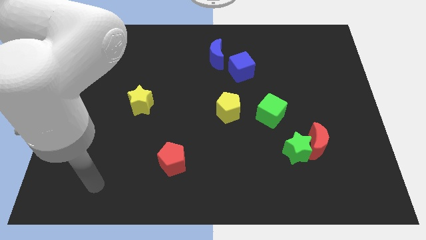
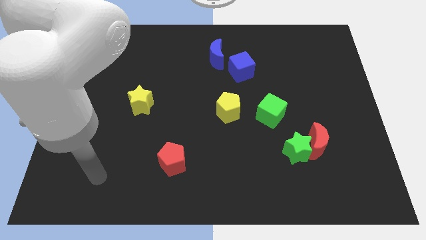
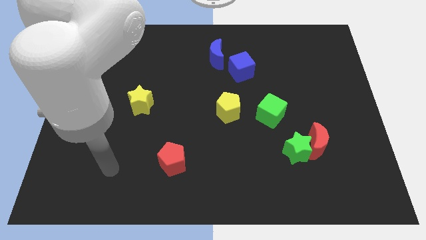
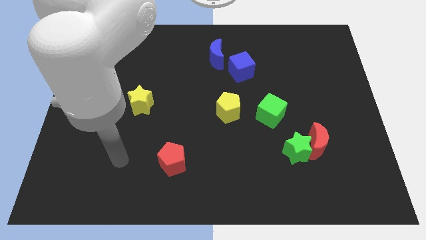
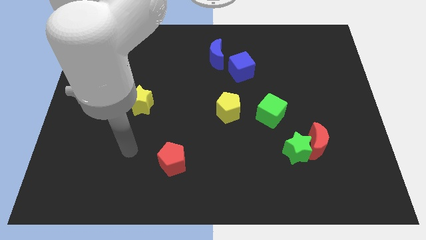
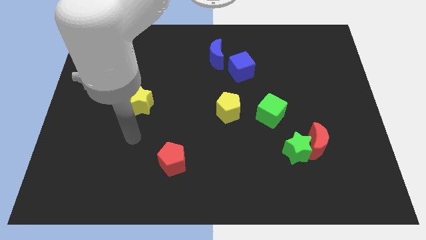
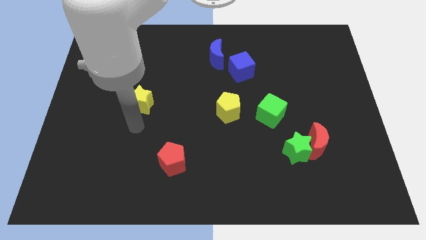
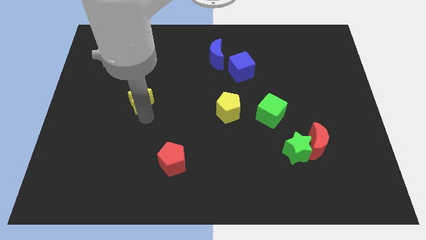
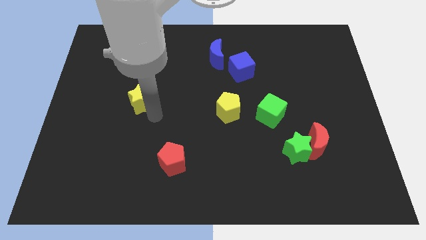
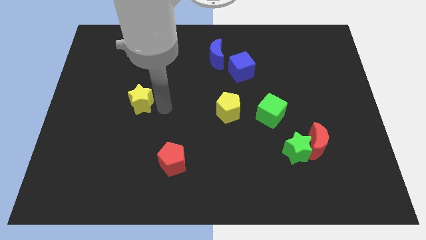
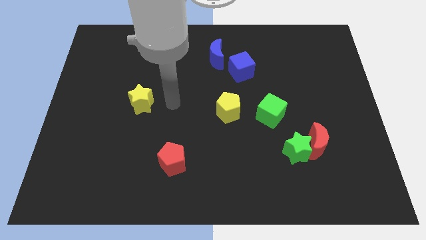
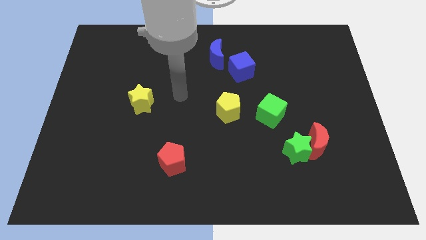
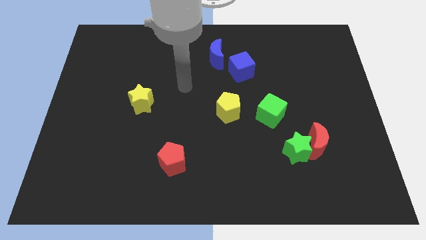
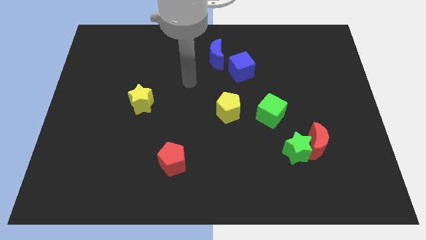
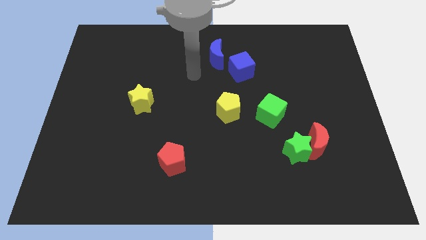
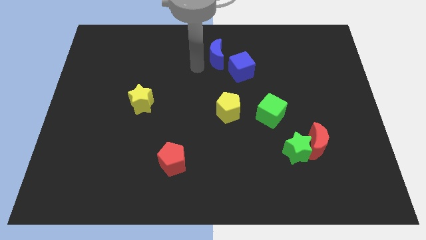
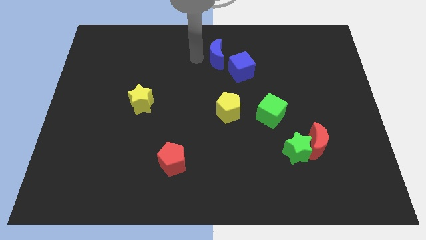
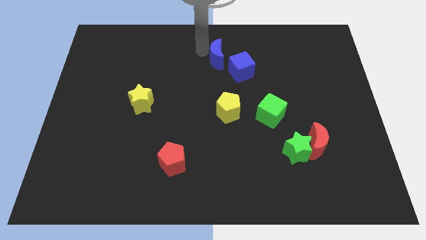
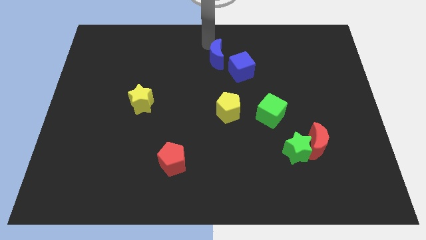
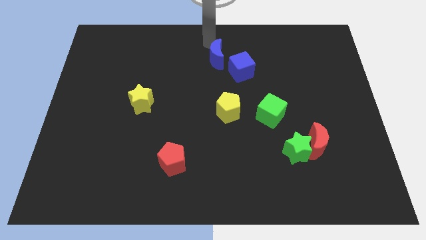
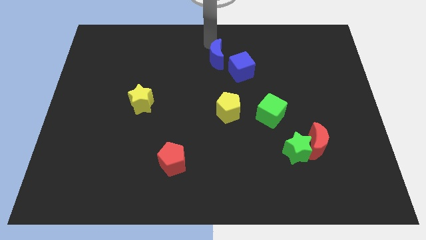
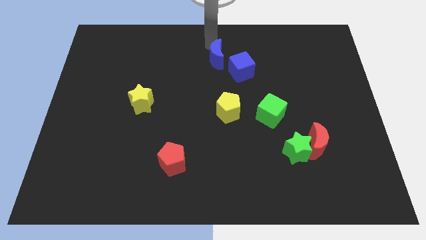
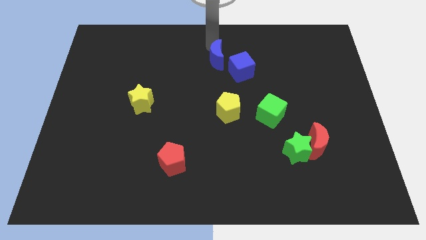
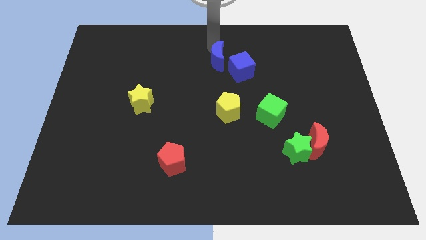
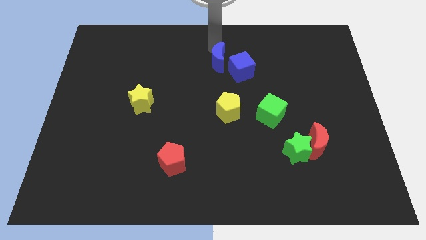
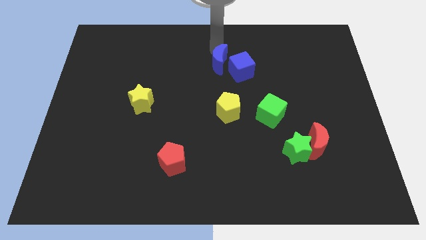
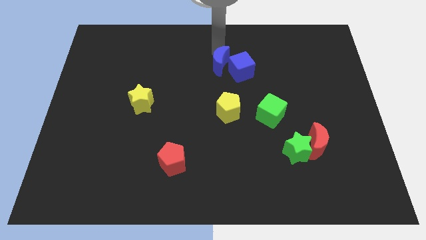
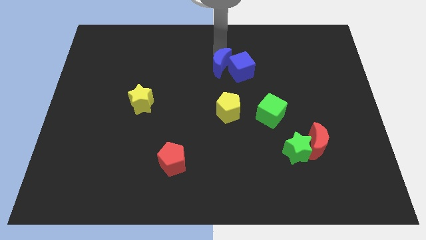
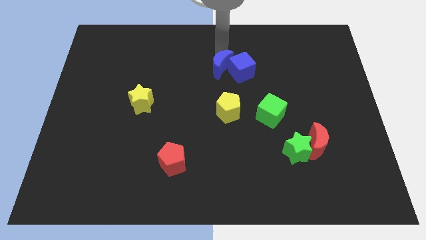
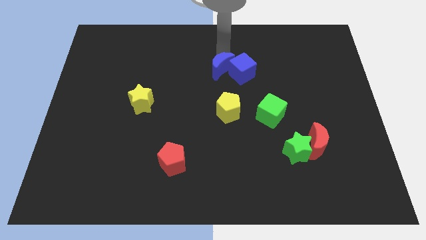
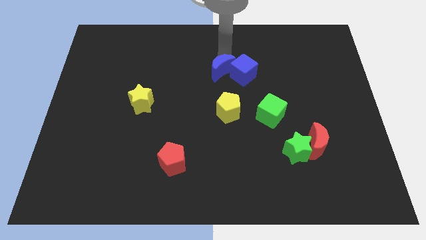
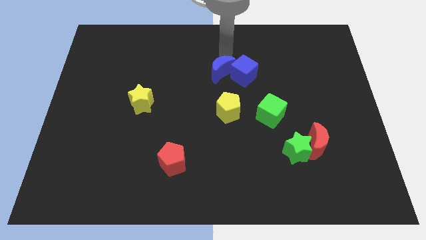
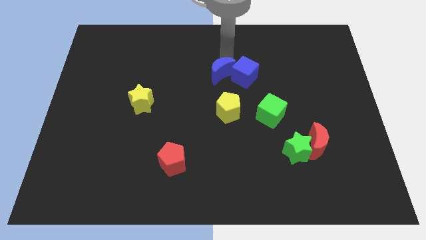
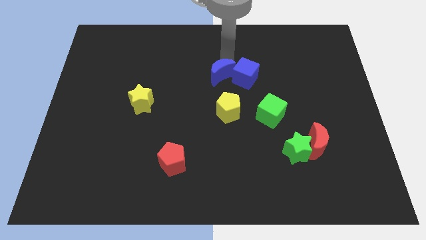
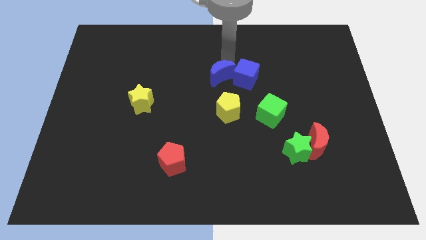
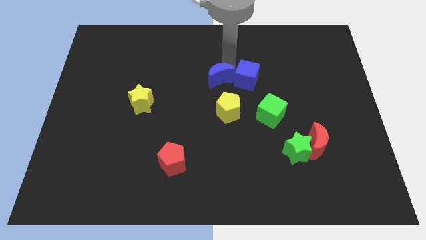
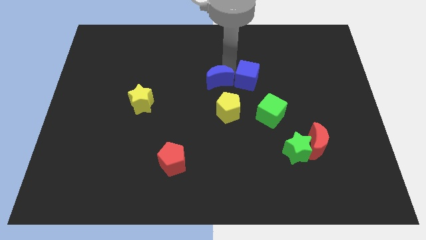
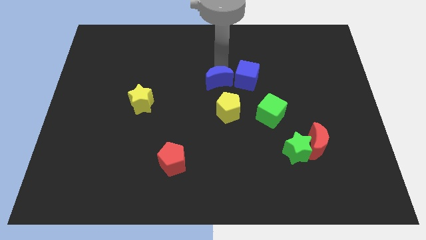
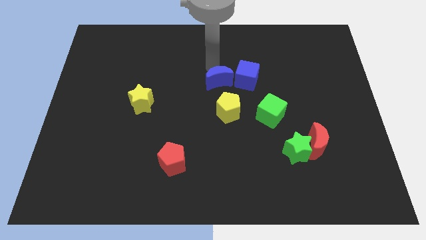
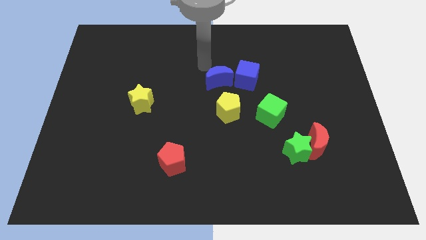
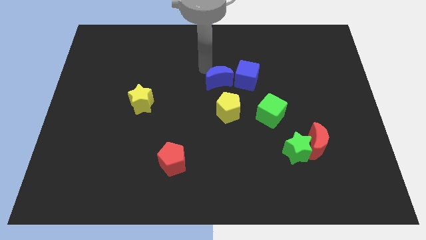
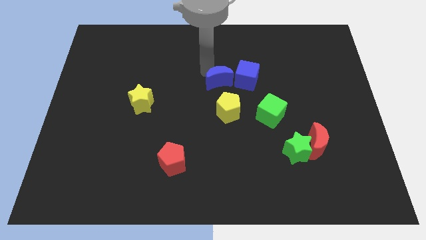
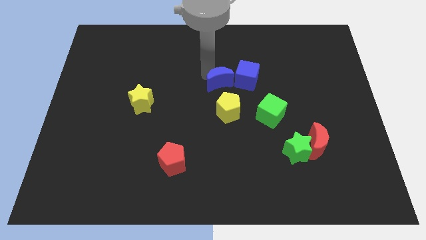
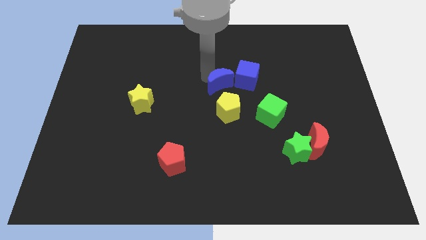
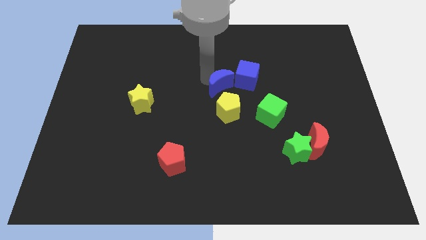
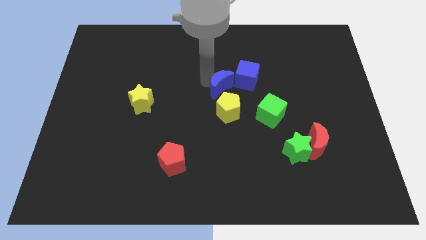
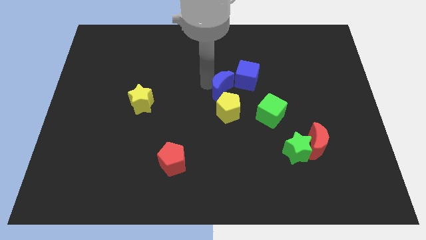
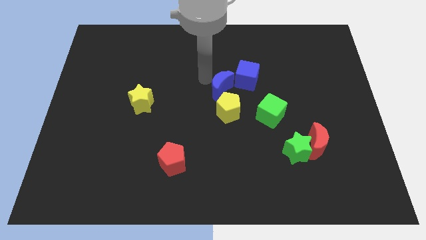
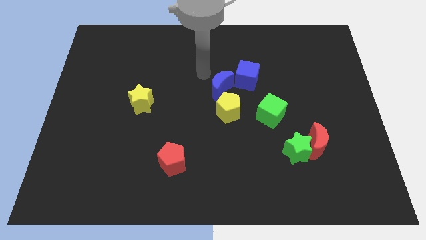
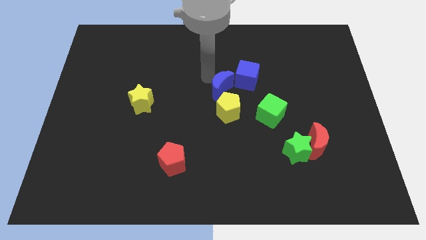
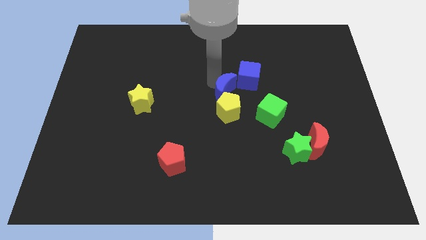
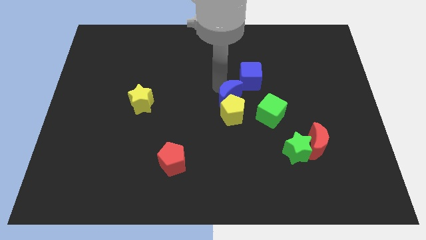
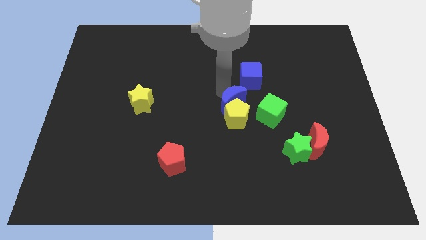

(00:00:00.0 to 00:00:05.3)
move the blue moon below the blue cube

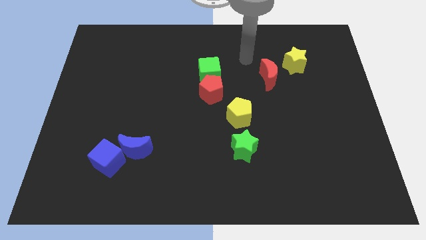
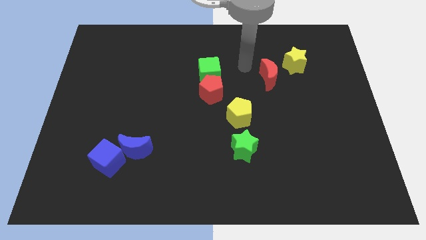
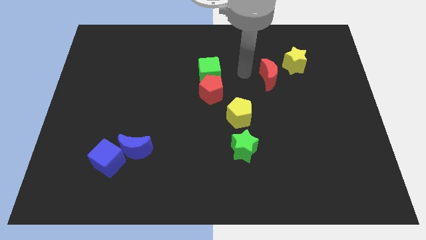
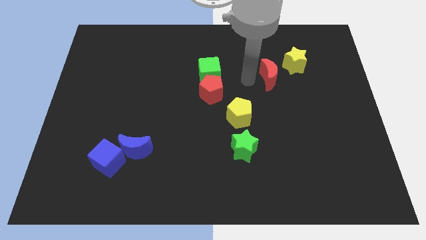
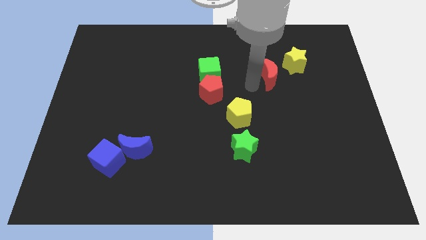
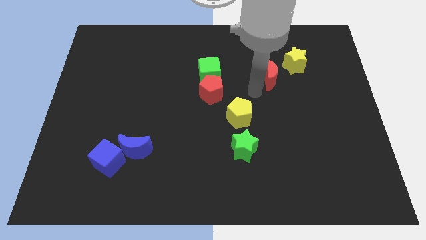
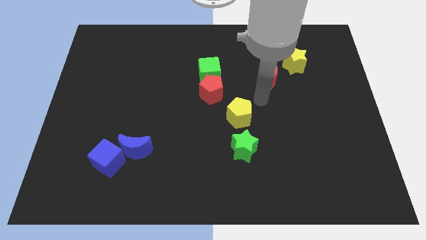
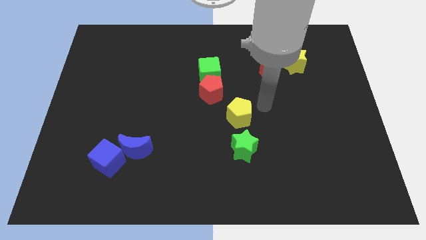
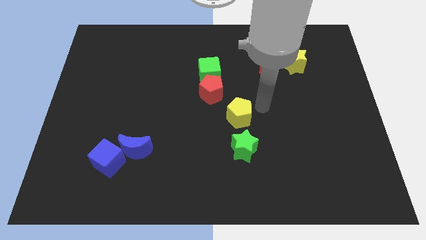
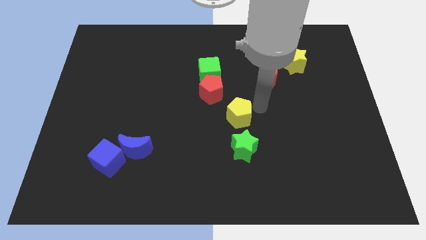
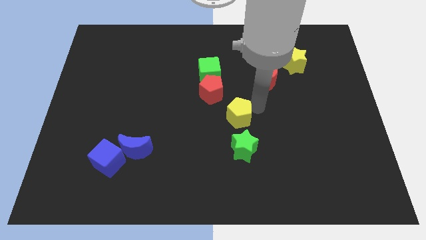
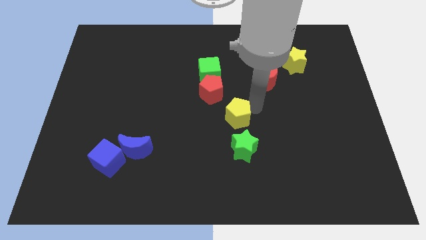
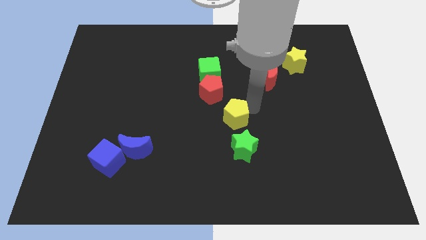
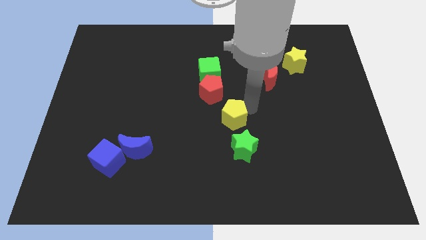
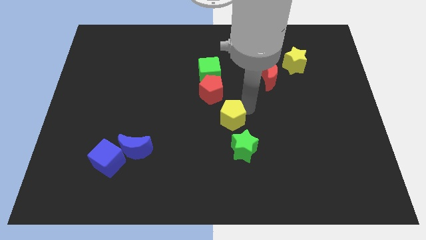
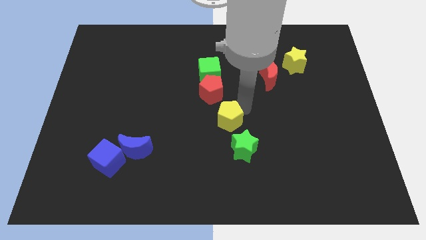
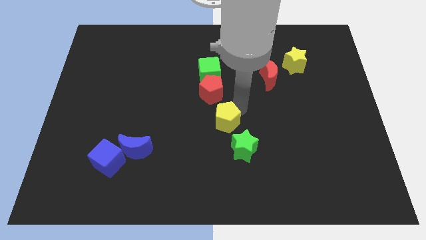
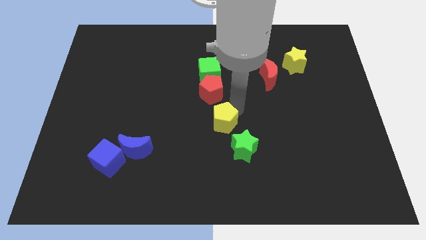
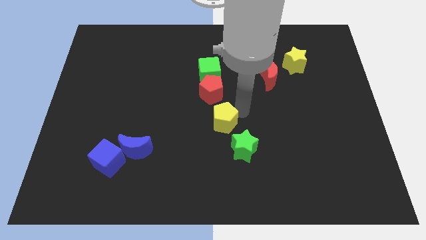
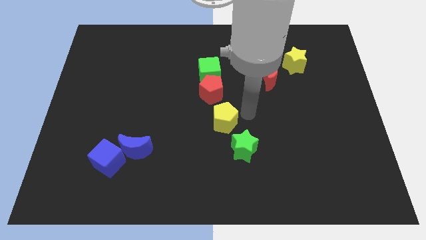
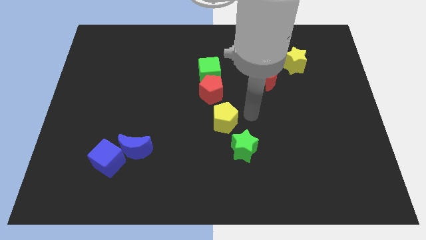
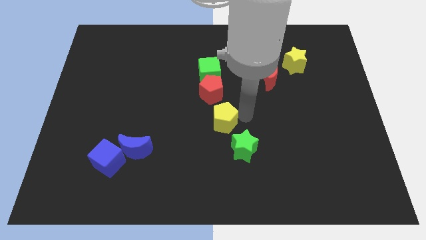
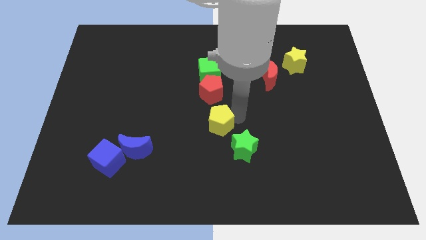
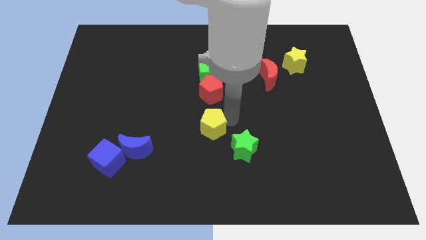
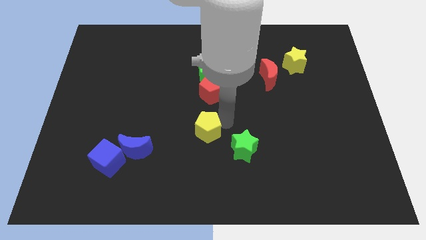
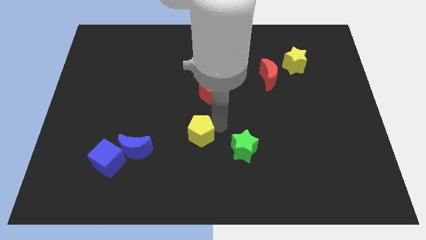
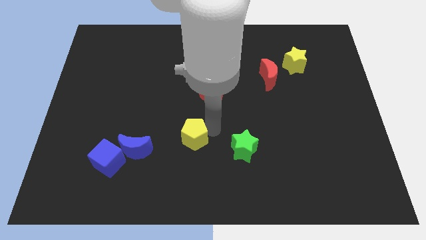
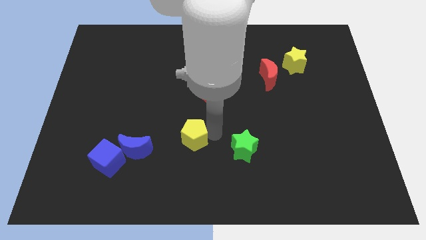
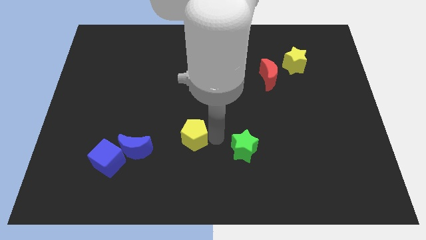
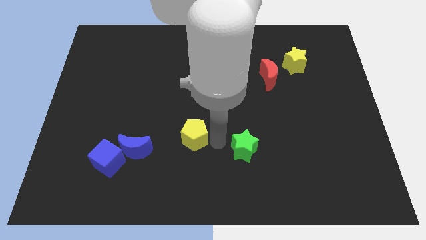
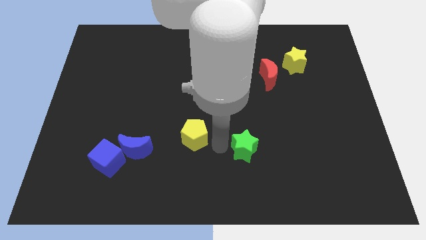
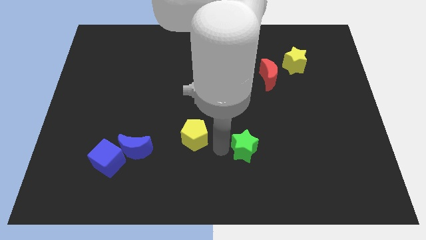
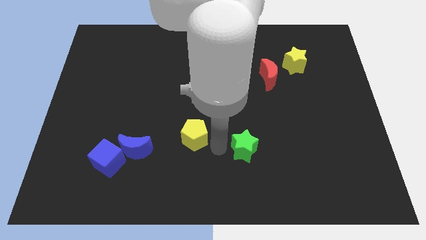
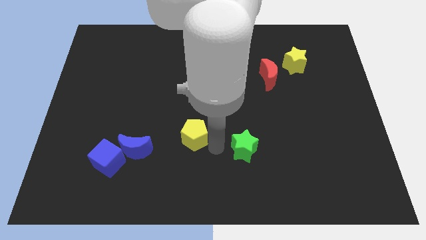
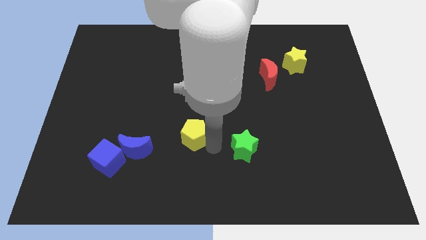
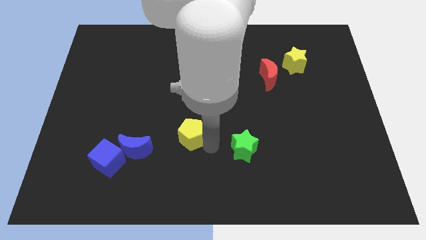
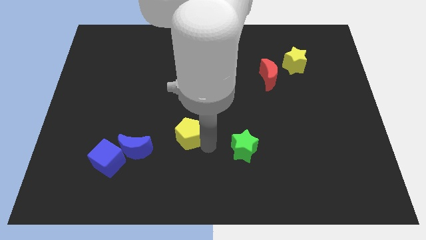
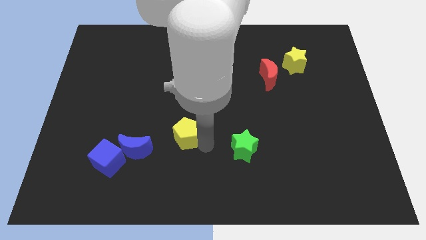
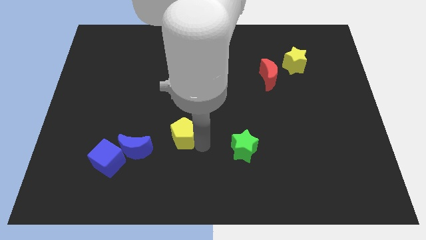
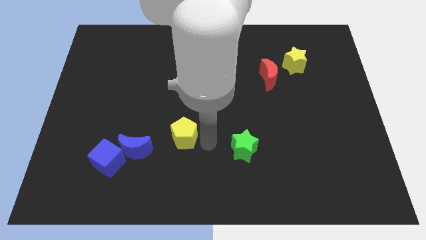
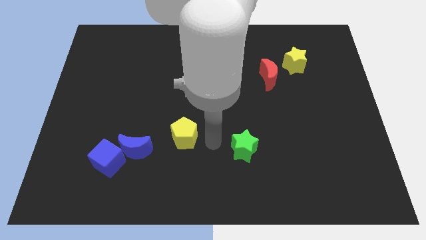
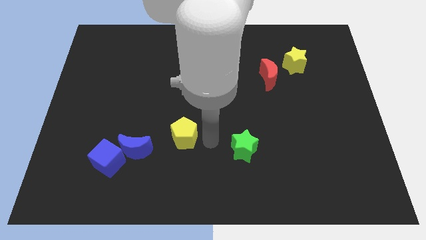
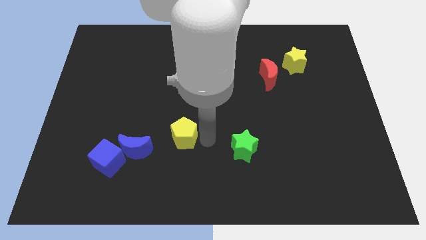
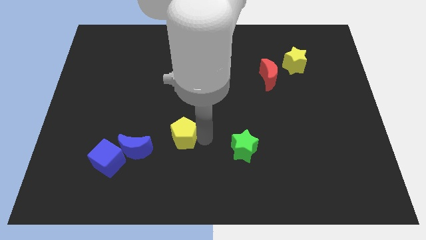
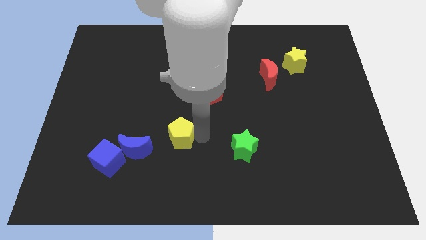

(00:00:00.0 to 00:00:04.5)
slide the yellow pentagon diagonally up and to the right of the blue moon
